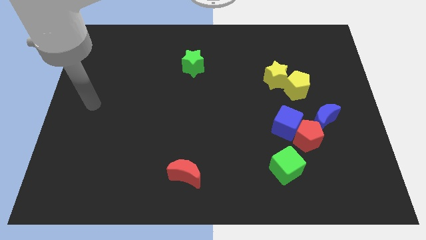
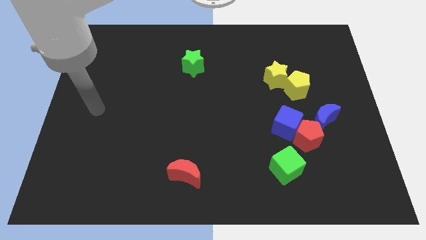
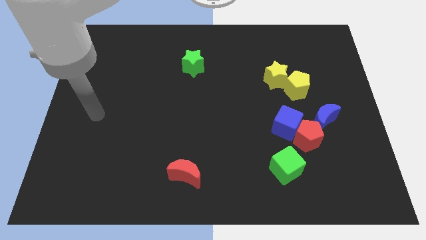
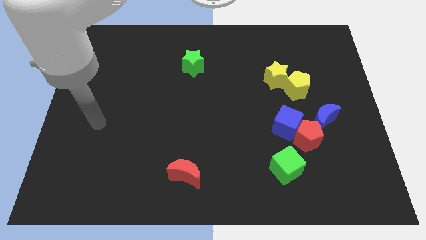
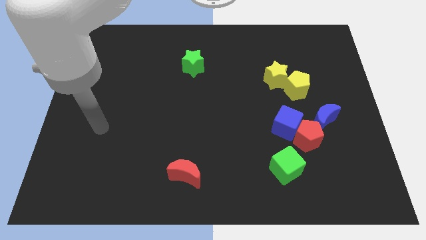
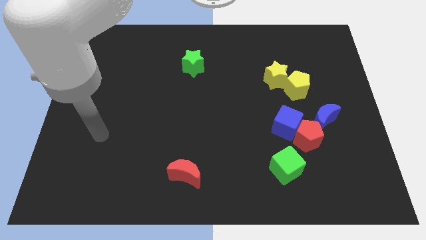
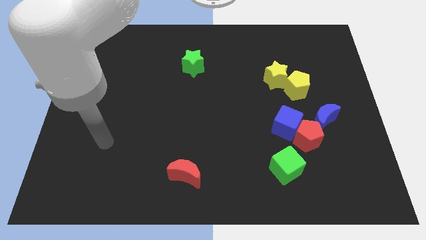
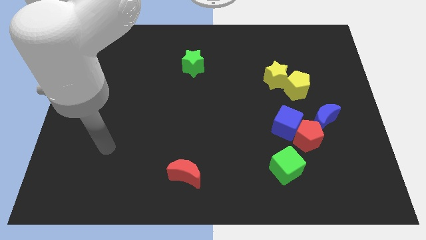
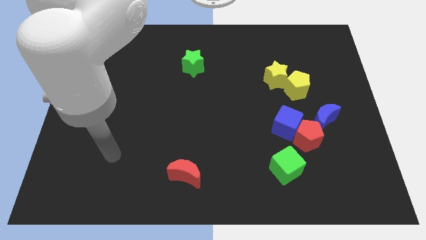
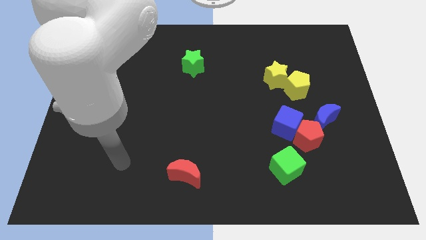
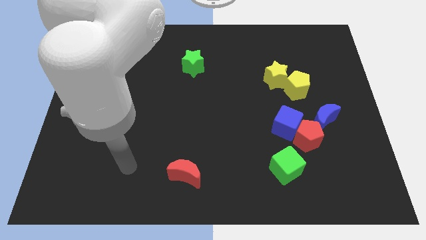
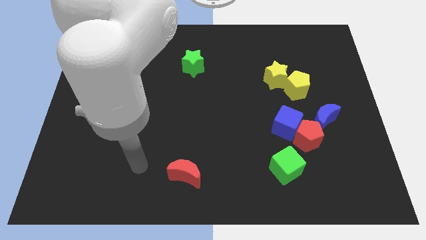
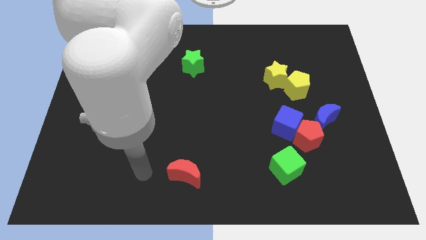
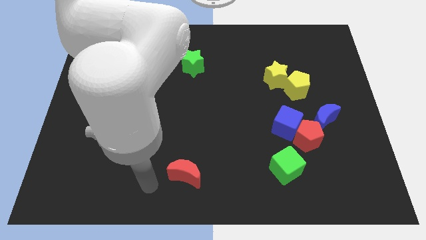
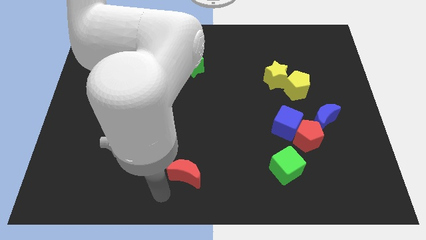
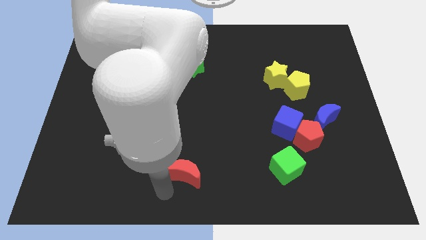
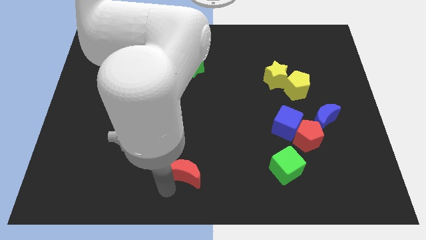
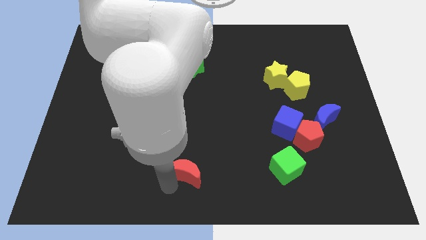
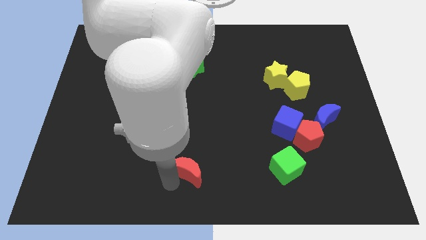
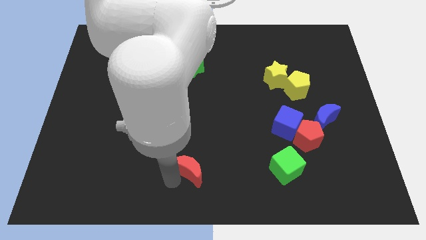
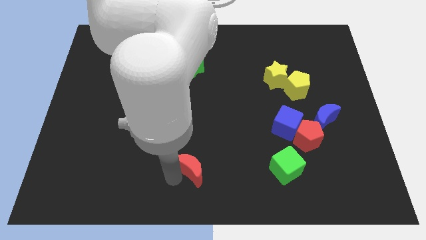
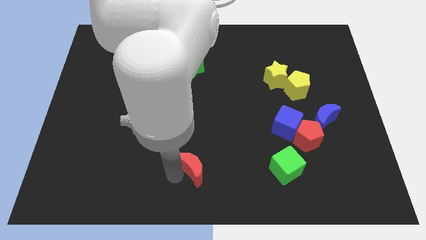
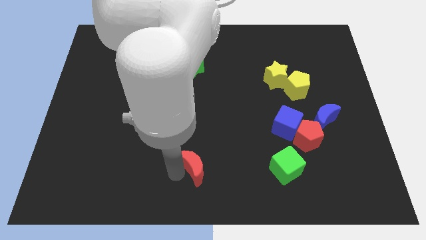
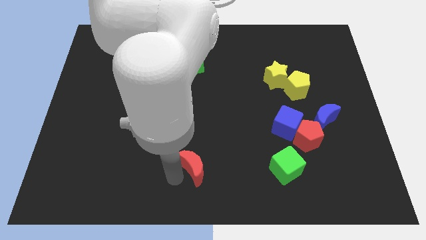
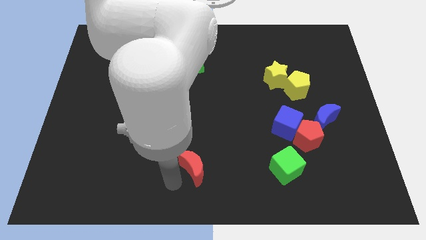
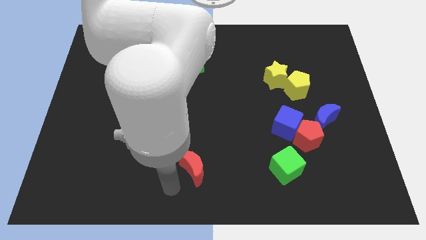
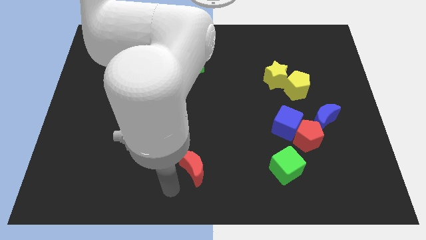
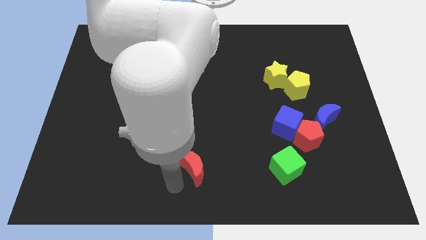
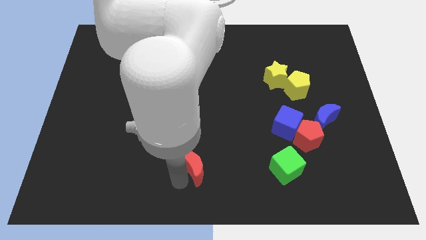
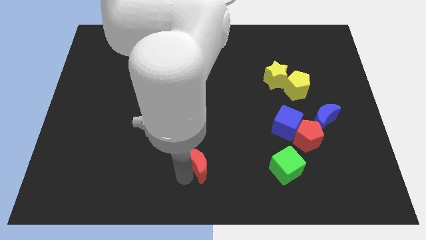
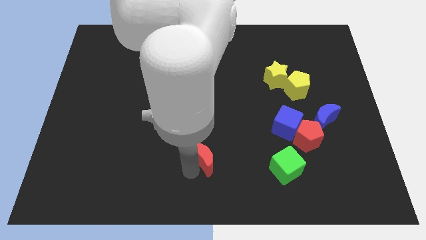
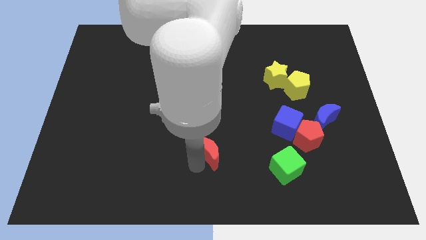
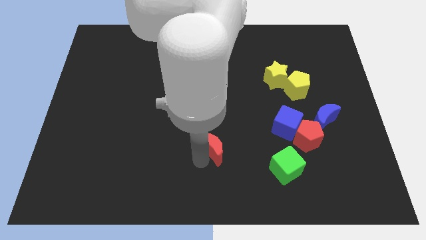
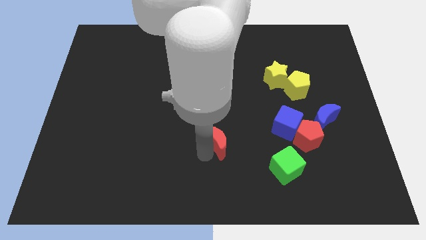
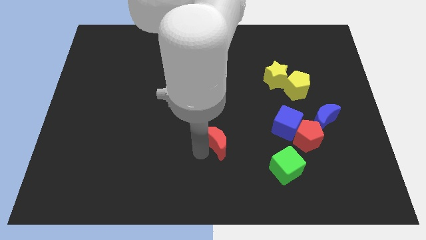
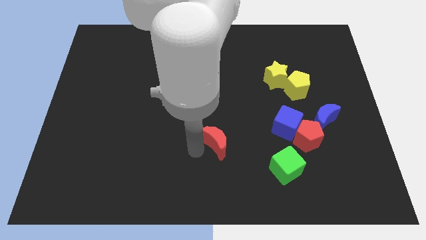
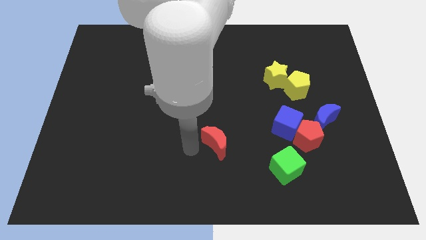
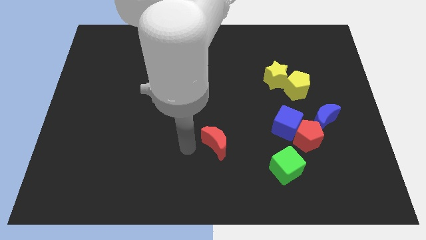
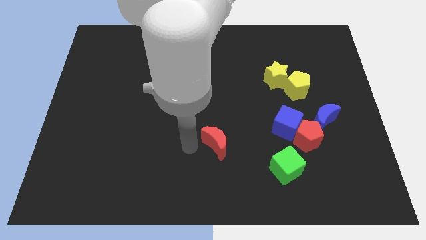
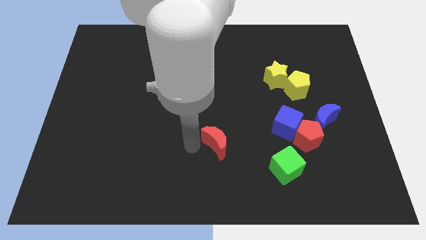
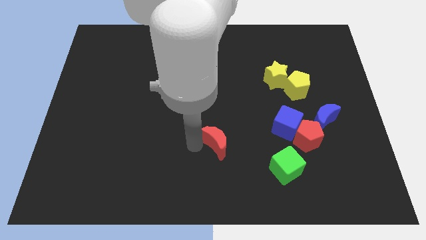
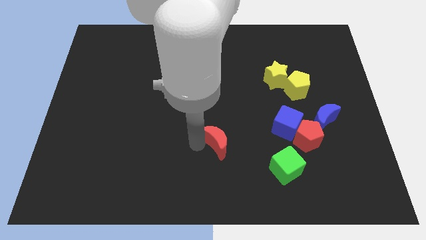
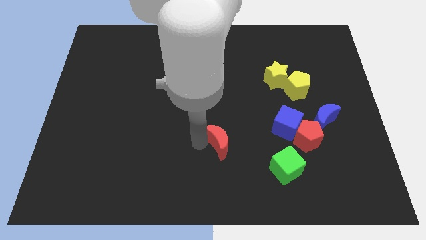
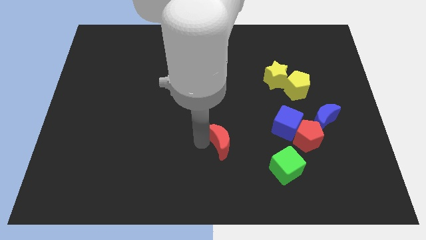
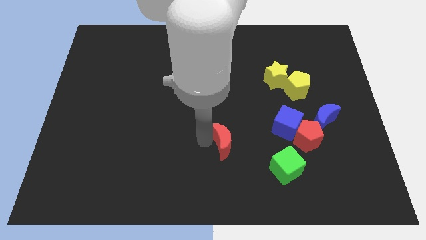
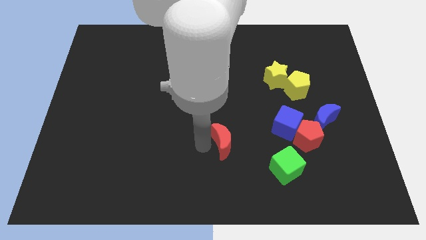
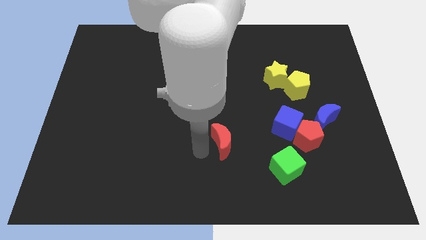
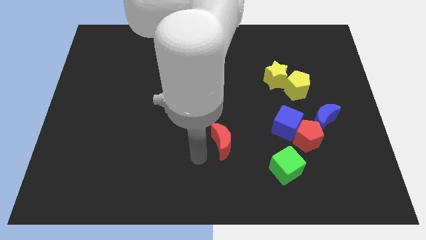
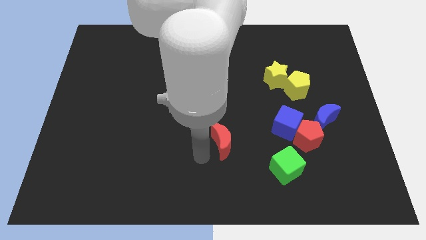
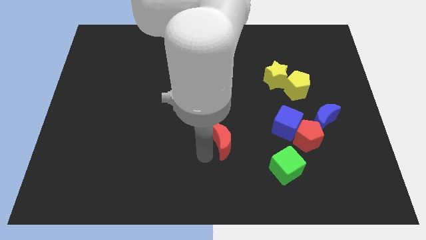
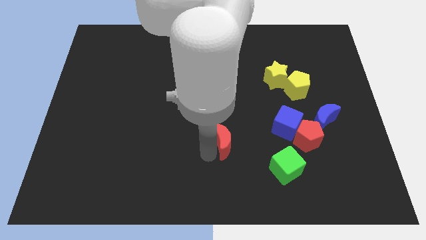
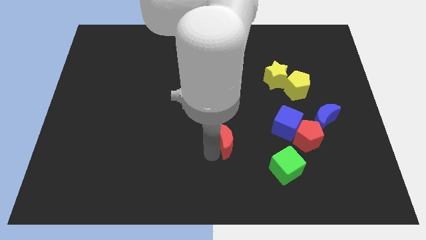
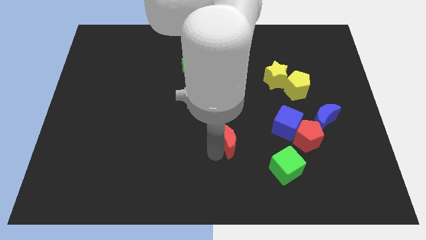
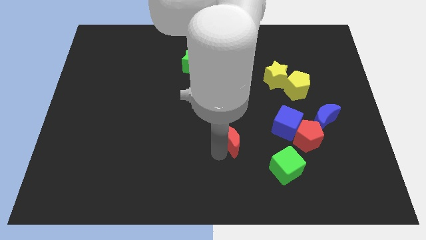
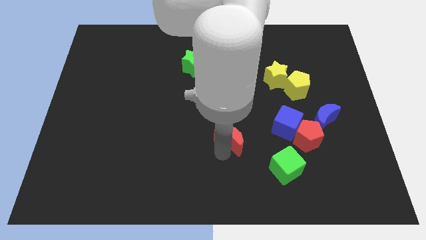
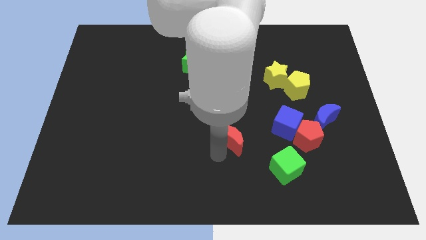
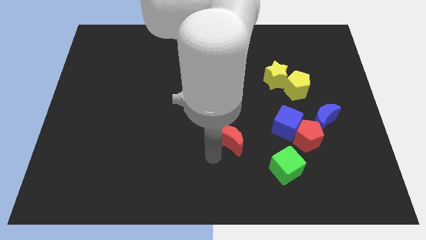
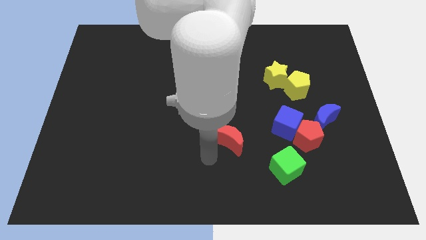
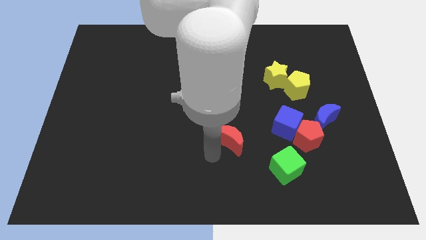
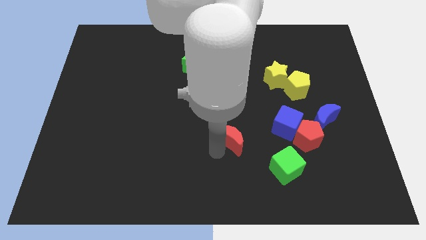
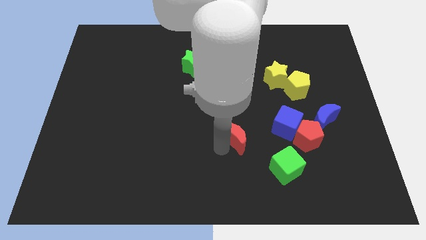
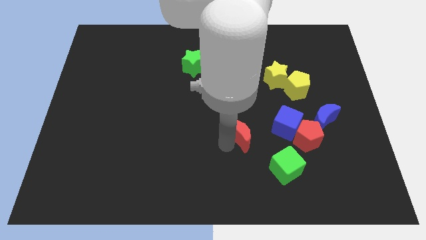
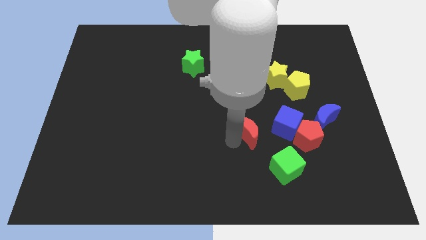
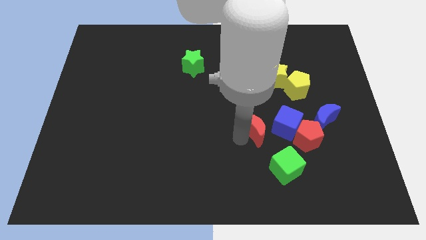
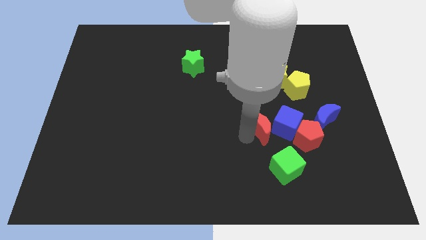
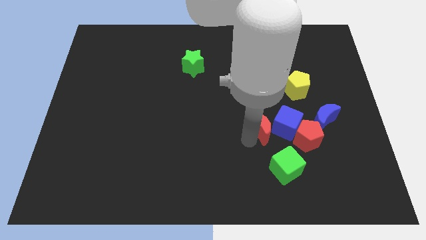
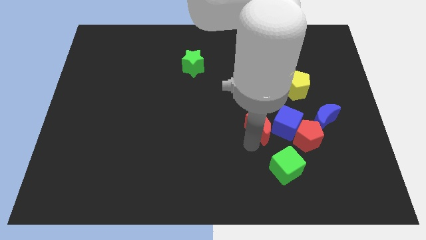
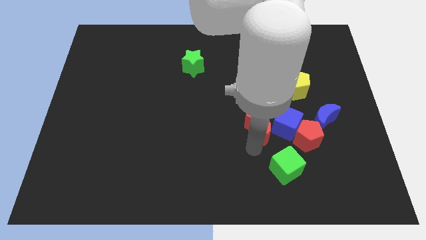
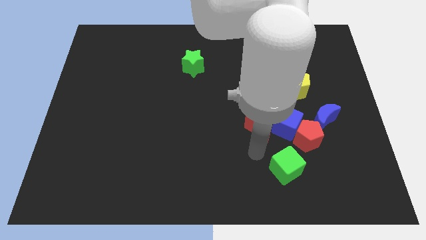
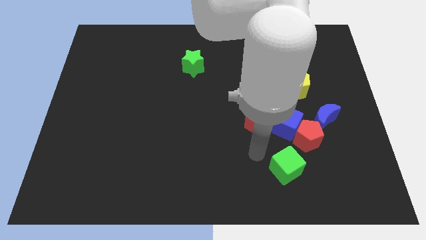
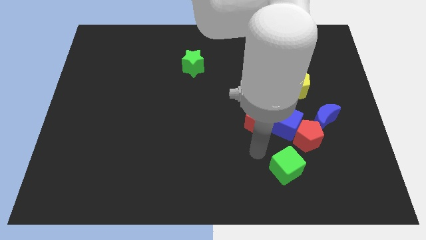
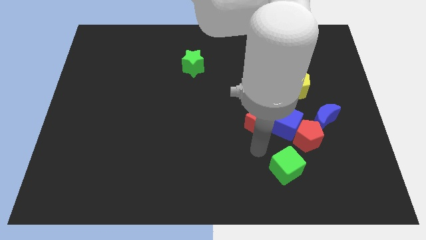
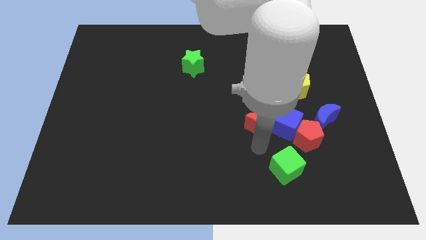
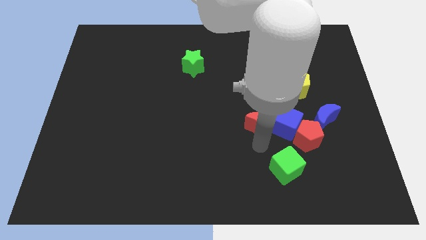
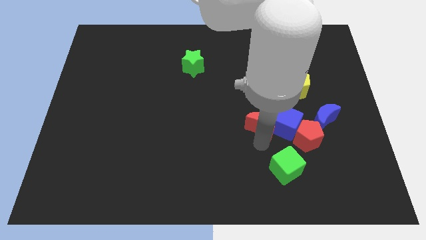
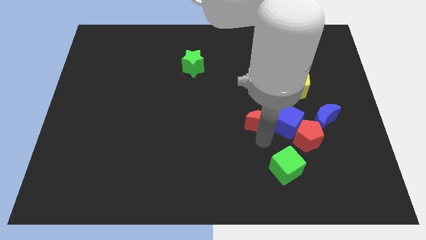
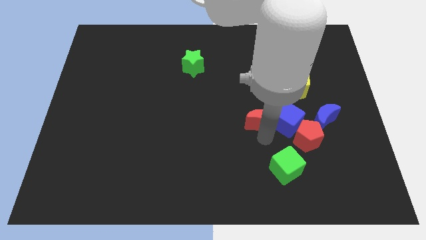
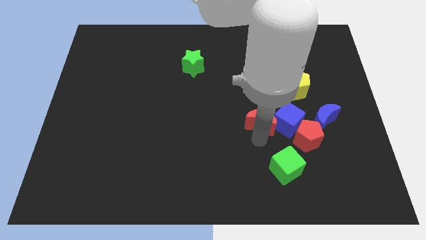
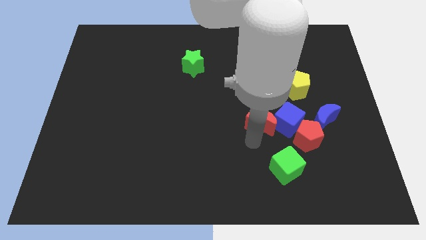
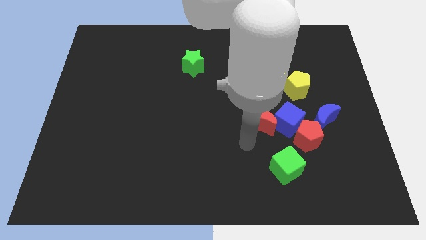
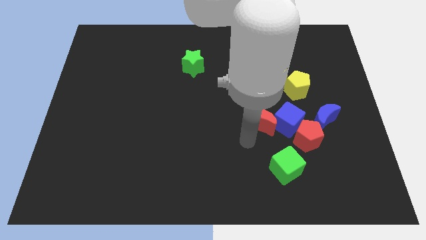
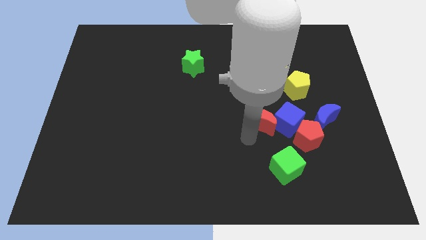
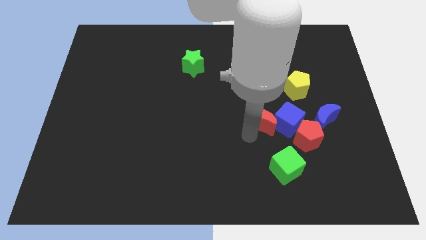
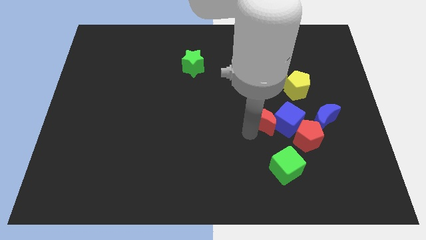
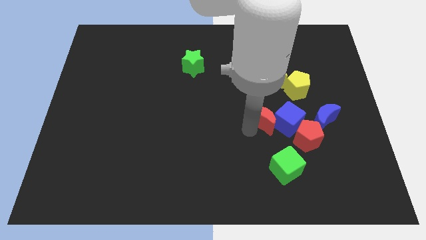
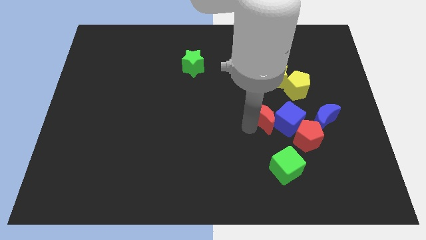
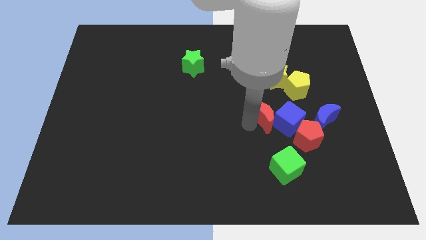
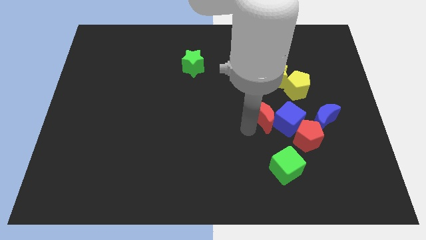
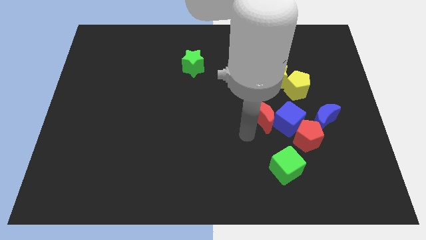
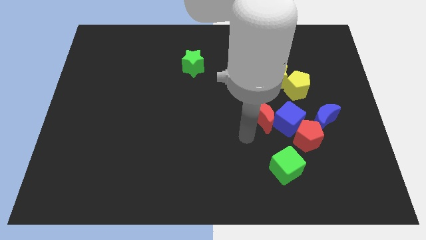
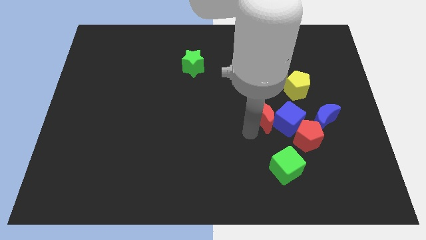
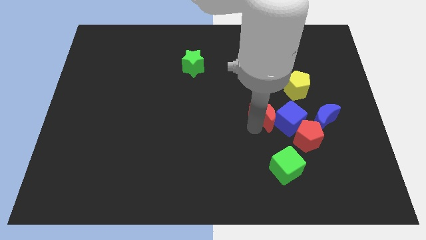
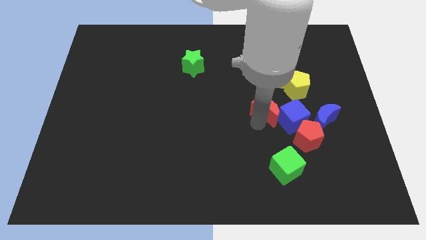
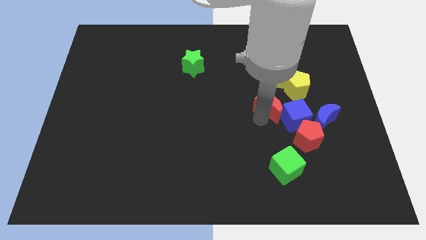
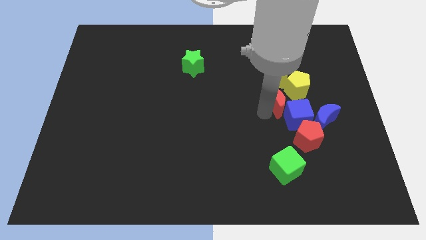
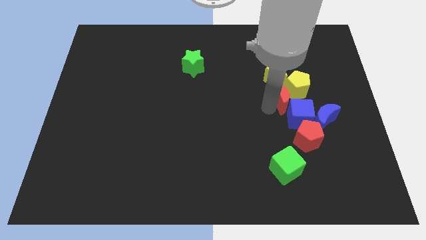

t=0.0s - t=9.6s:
put the red moon close to the yellow pentagon
